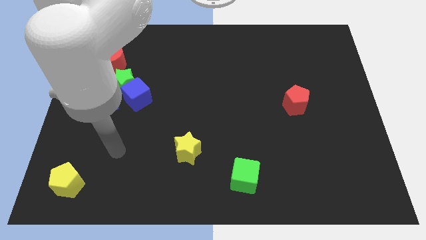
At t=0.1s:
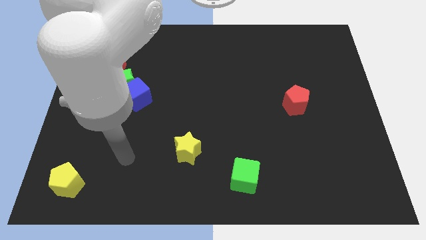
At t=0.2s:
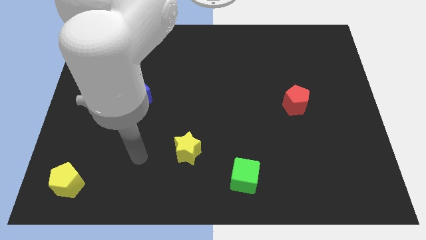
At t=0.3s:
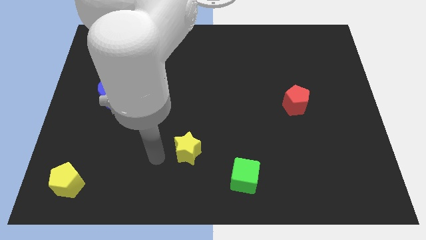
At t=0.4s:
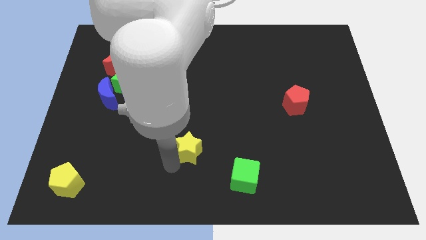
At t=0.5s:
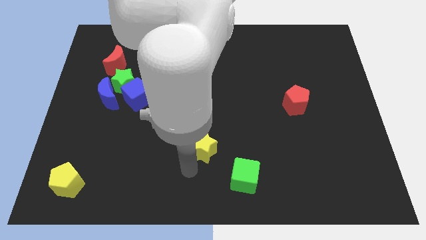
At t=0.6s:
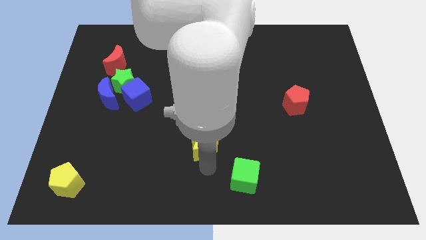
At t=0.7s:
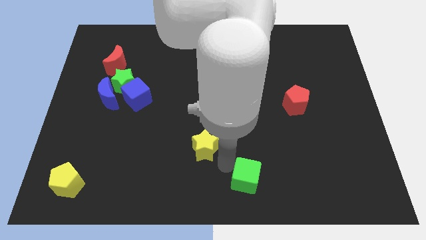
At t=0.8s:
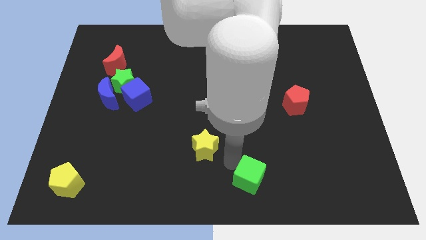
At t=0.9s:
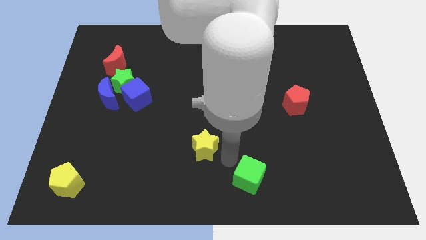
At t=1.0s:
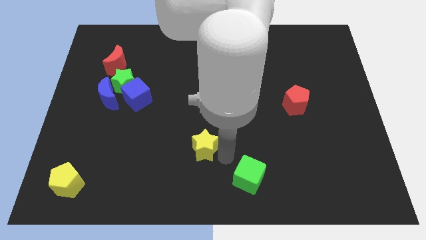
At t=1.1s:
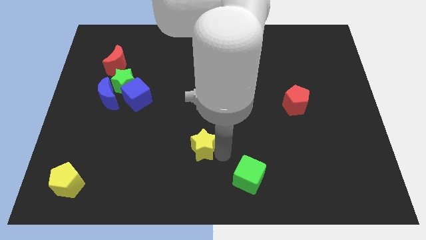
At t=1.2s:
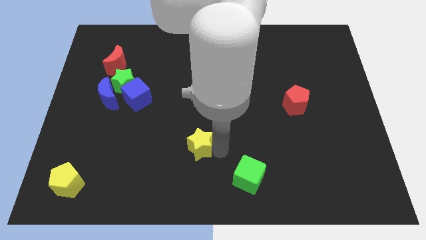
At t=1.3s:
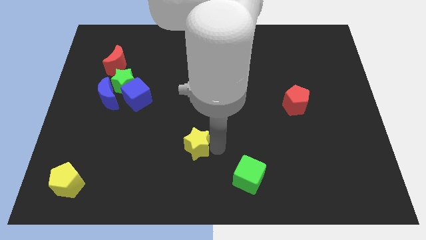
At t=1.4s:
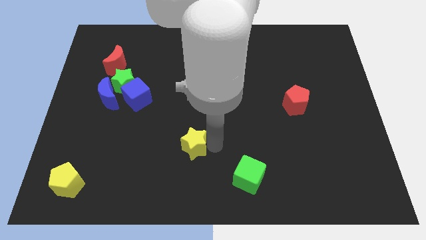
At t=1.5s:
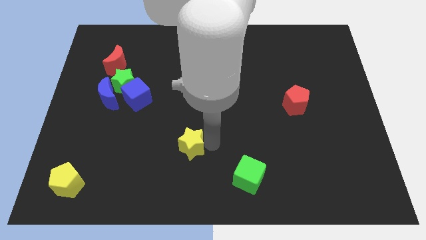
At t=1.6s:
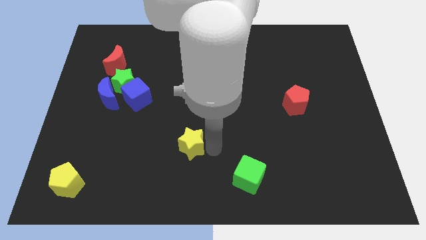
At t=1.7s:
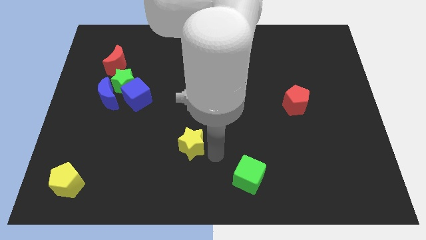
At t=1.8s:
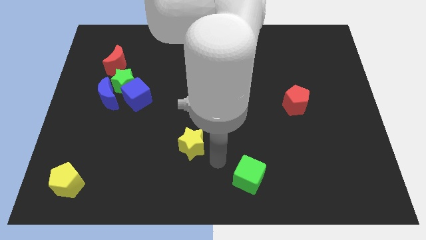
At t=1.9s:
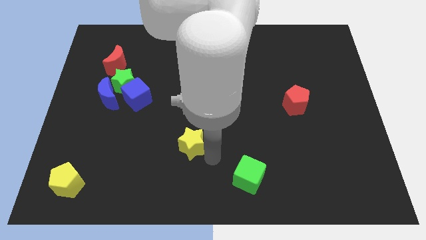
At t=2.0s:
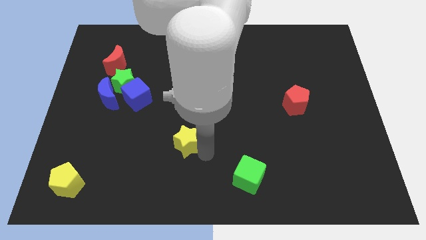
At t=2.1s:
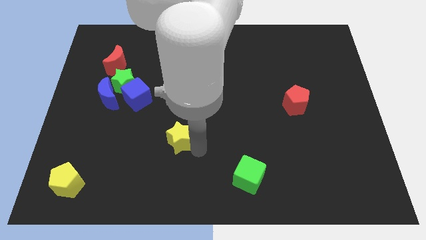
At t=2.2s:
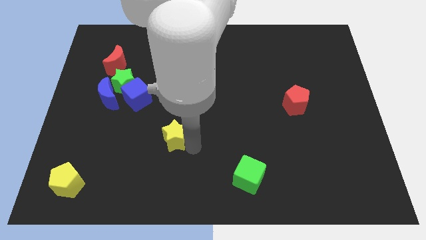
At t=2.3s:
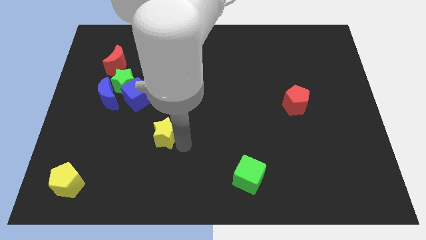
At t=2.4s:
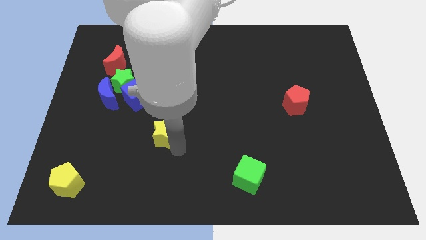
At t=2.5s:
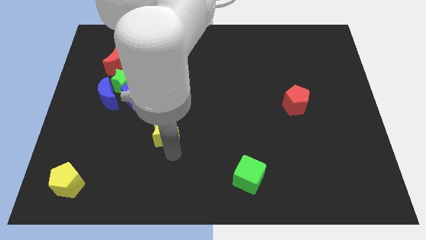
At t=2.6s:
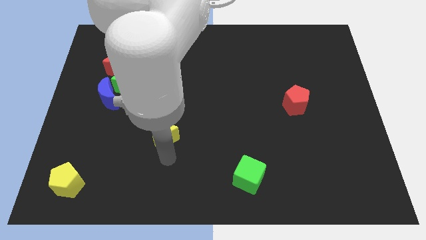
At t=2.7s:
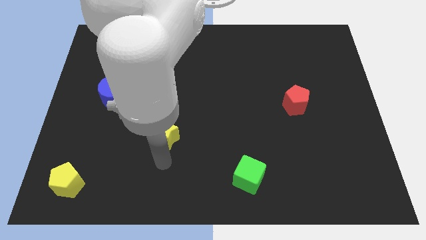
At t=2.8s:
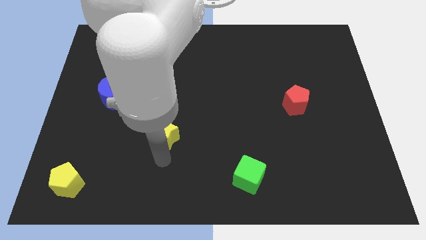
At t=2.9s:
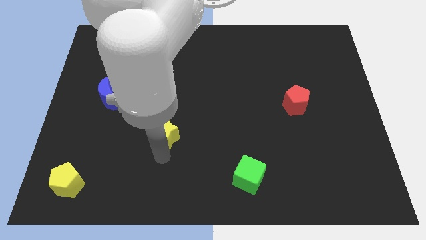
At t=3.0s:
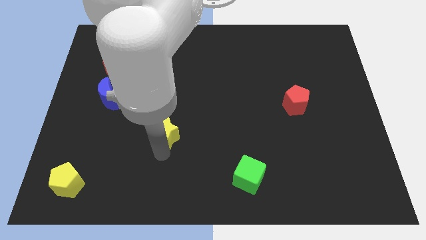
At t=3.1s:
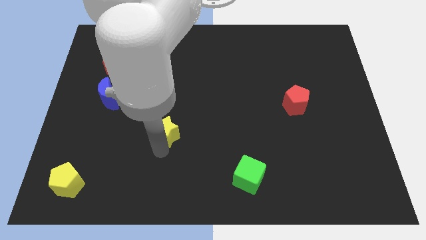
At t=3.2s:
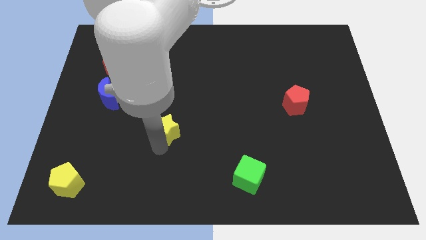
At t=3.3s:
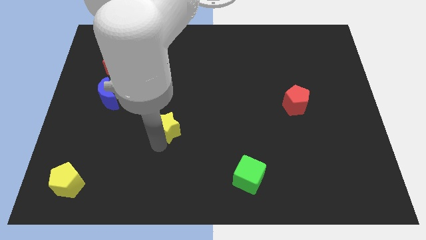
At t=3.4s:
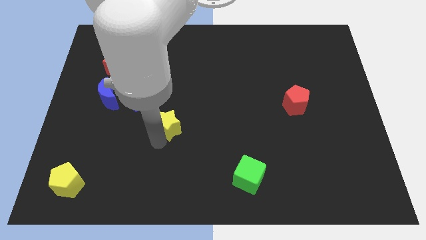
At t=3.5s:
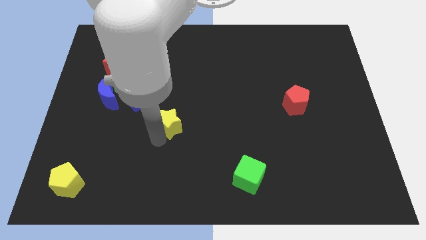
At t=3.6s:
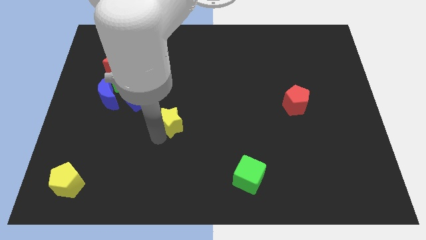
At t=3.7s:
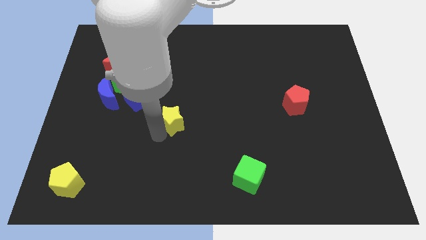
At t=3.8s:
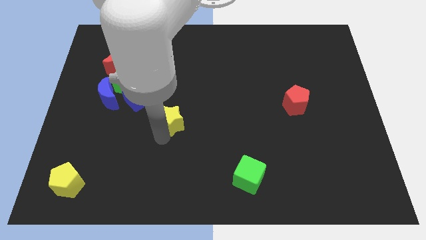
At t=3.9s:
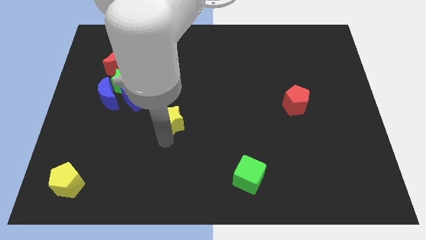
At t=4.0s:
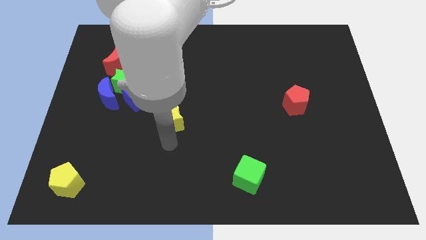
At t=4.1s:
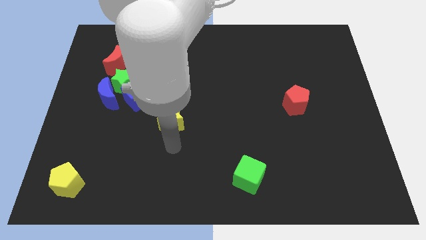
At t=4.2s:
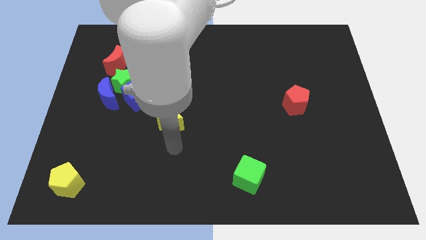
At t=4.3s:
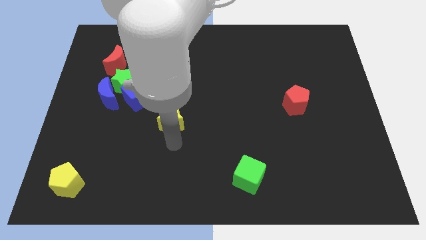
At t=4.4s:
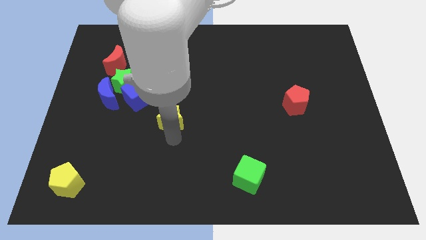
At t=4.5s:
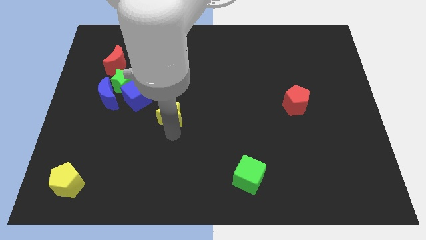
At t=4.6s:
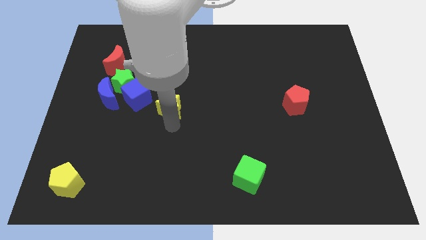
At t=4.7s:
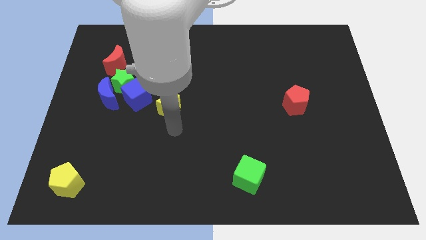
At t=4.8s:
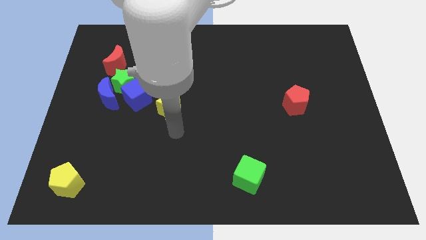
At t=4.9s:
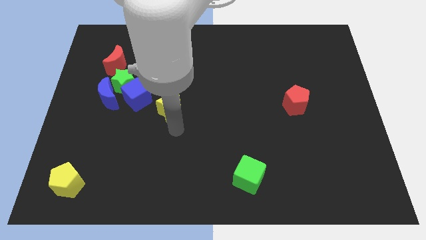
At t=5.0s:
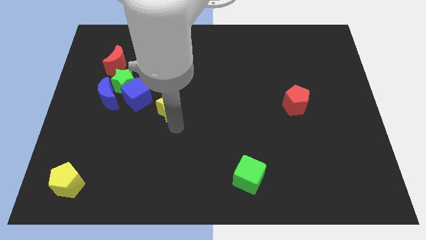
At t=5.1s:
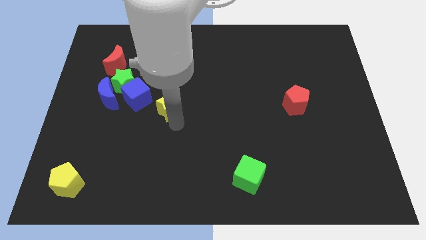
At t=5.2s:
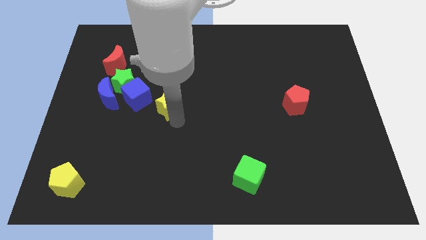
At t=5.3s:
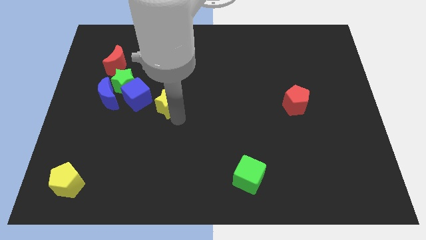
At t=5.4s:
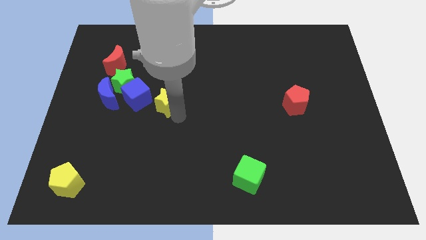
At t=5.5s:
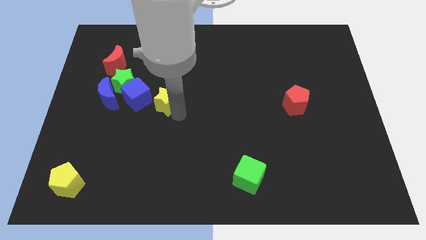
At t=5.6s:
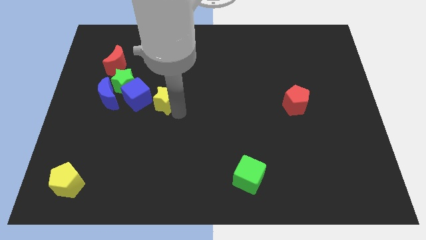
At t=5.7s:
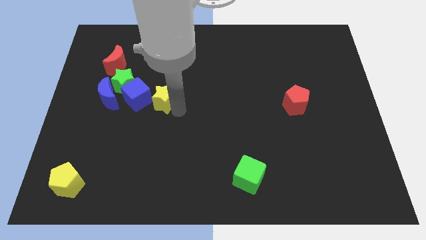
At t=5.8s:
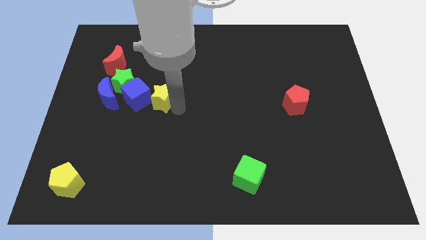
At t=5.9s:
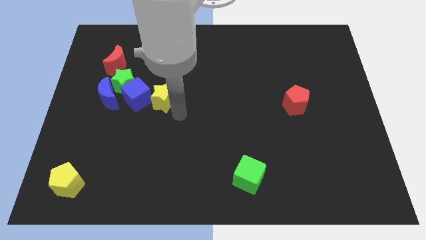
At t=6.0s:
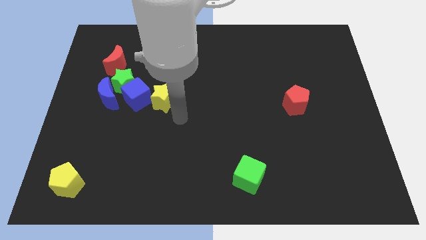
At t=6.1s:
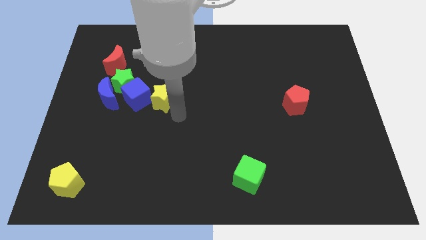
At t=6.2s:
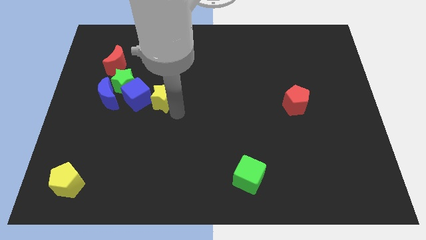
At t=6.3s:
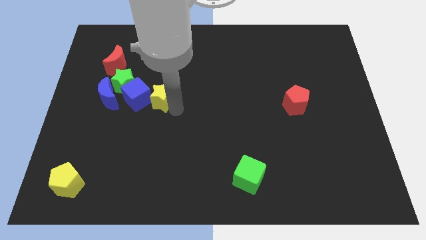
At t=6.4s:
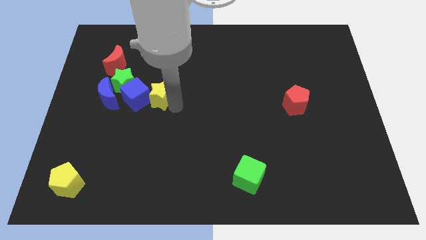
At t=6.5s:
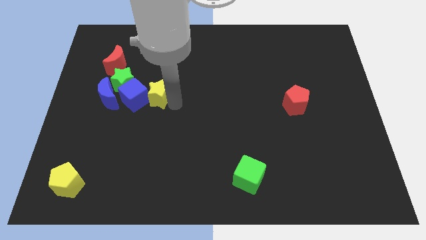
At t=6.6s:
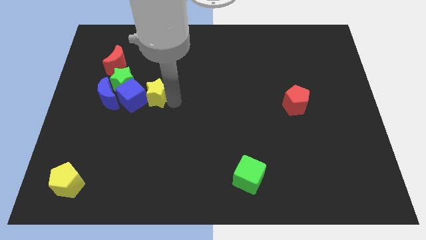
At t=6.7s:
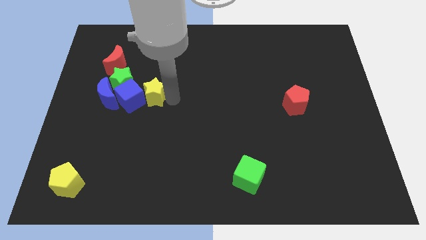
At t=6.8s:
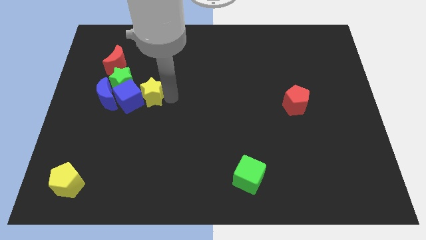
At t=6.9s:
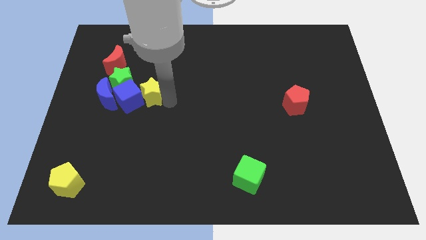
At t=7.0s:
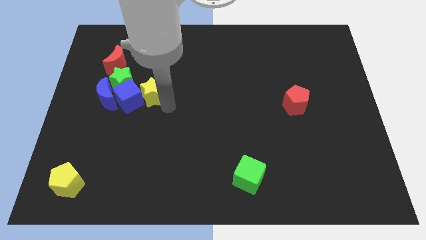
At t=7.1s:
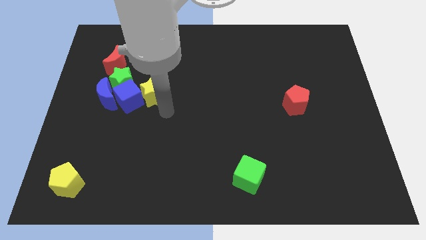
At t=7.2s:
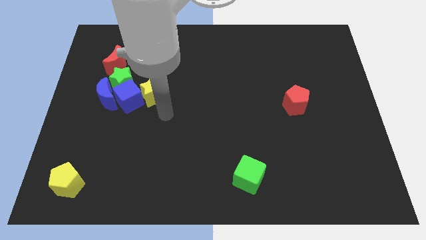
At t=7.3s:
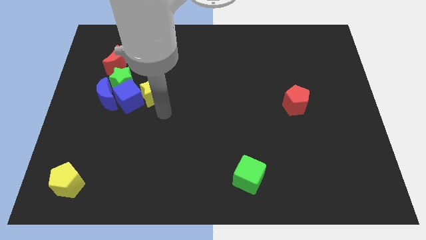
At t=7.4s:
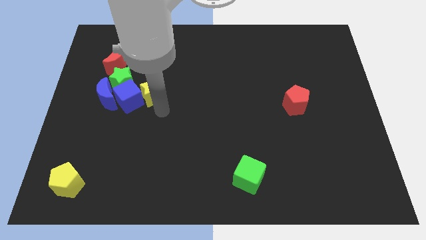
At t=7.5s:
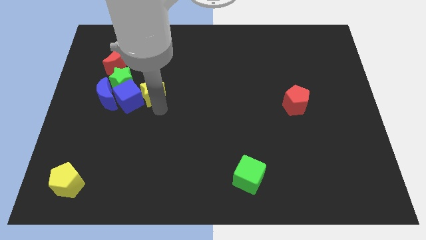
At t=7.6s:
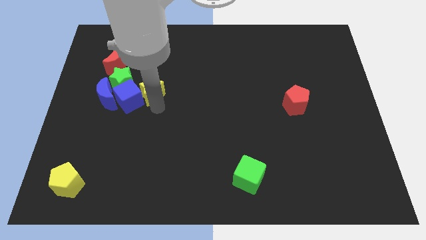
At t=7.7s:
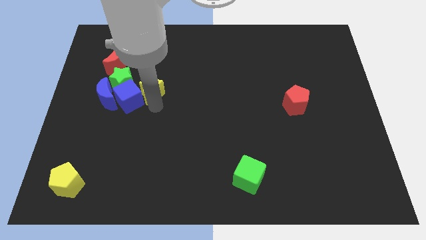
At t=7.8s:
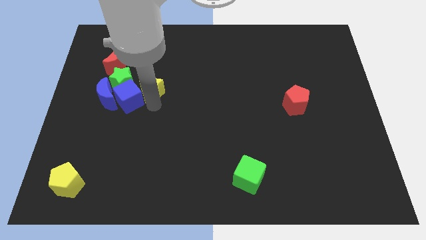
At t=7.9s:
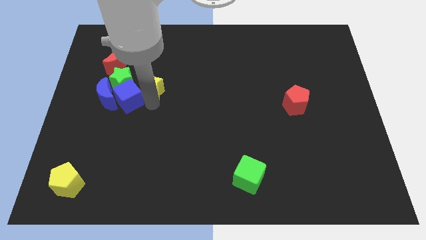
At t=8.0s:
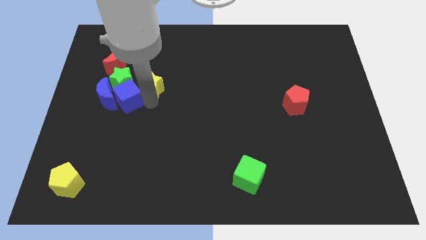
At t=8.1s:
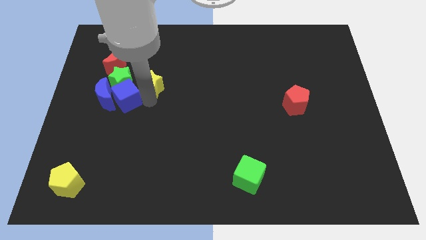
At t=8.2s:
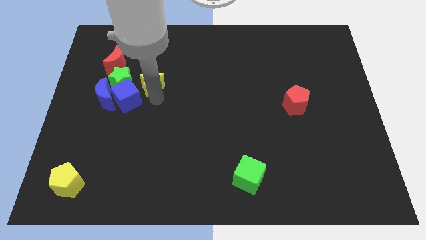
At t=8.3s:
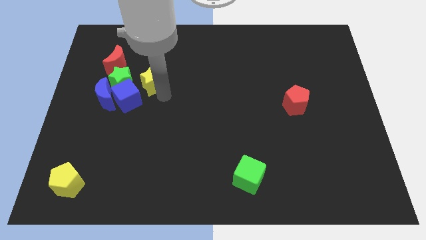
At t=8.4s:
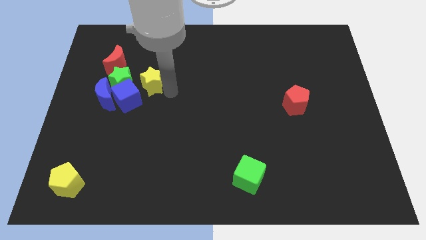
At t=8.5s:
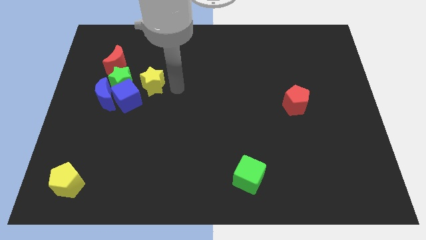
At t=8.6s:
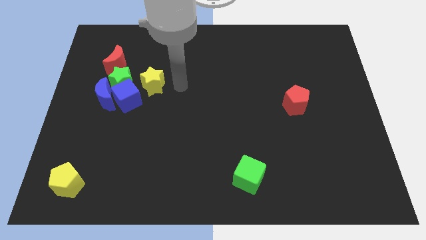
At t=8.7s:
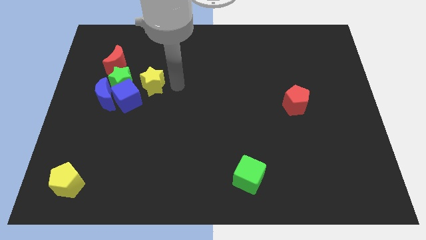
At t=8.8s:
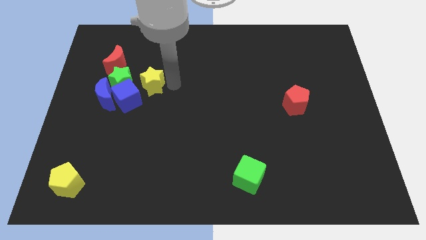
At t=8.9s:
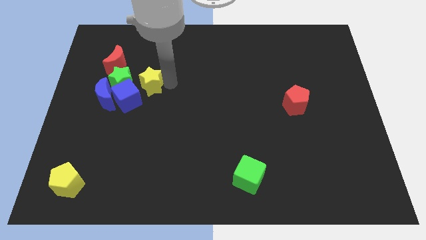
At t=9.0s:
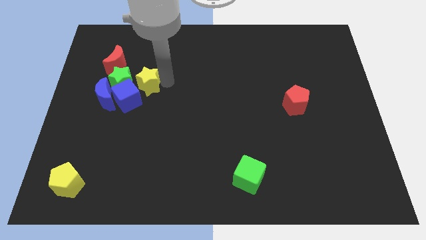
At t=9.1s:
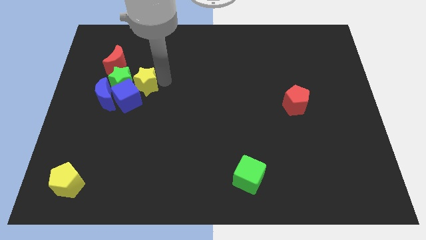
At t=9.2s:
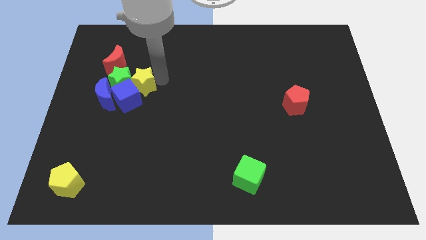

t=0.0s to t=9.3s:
put the yellow star next to the green star
